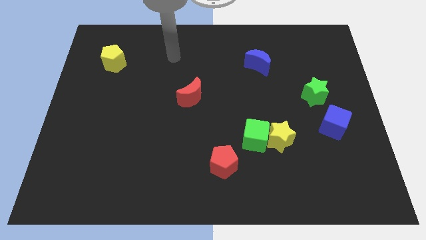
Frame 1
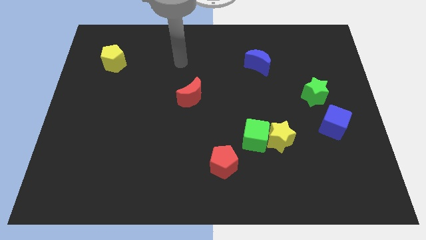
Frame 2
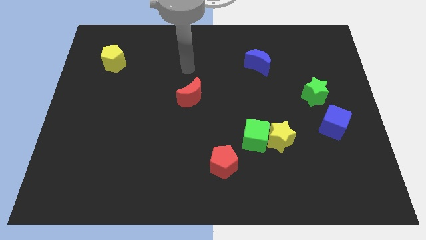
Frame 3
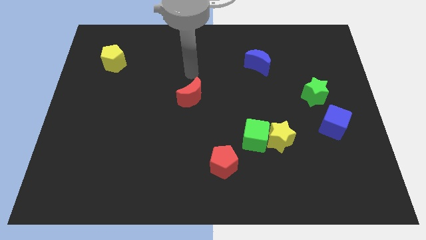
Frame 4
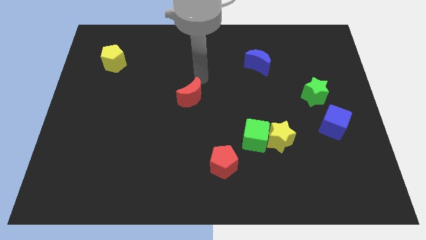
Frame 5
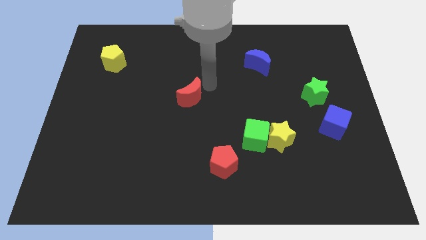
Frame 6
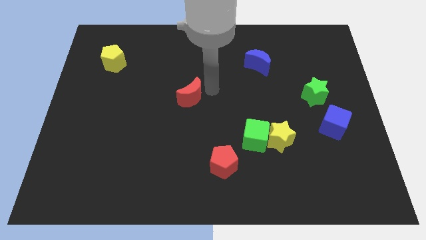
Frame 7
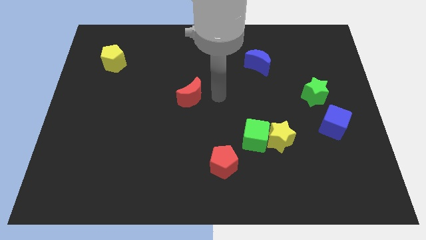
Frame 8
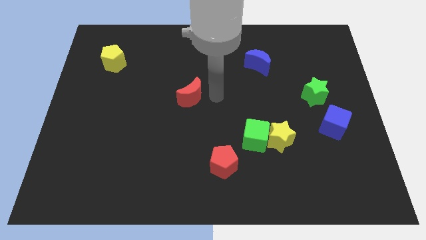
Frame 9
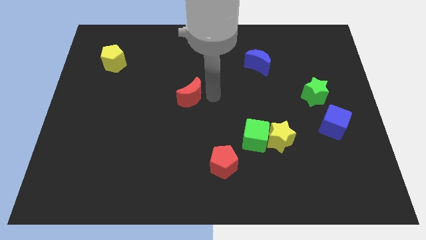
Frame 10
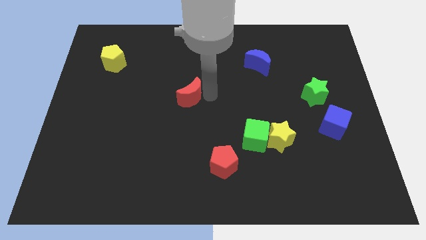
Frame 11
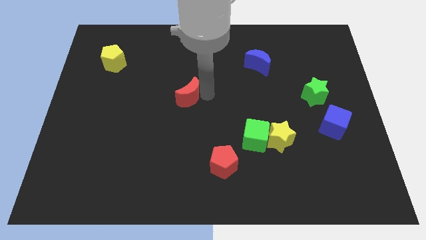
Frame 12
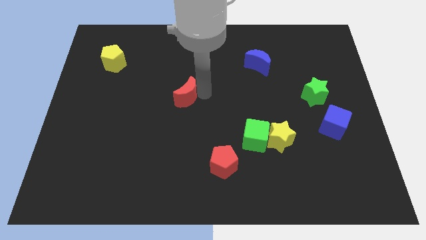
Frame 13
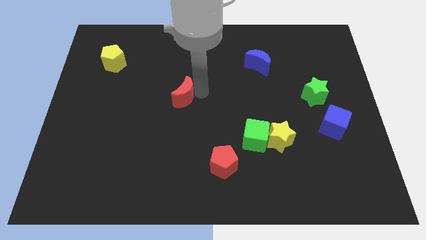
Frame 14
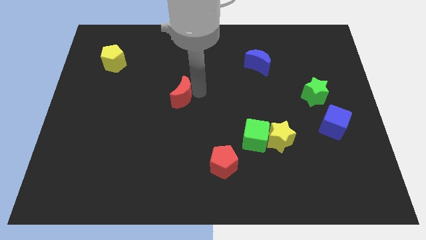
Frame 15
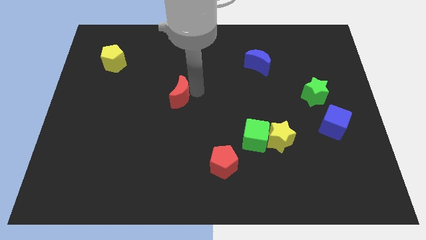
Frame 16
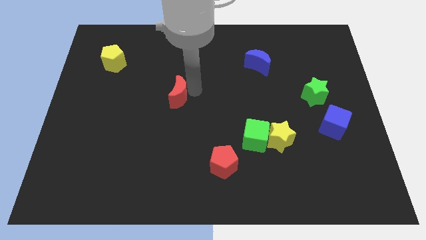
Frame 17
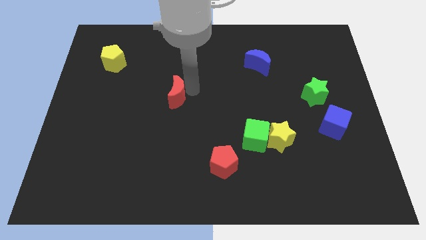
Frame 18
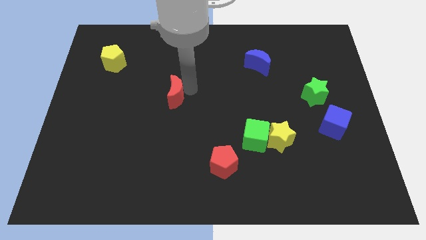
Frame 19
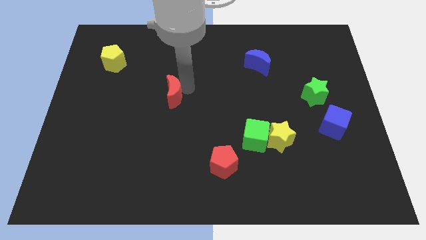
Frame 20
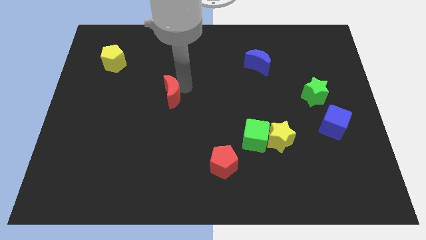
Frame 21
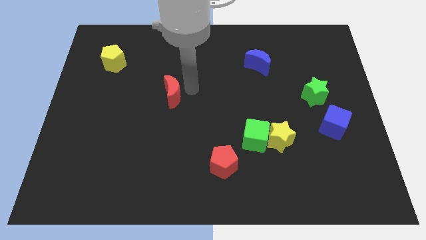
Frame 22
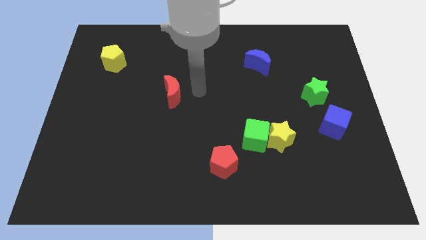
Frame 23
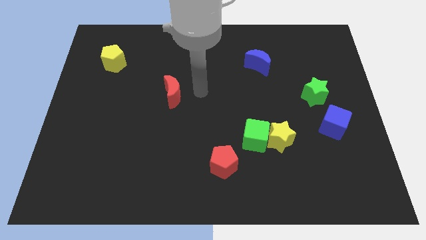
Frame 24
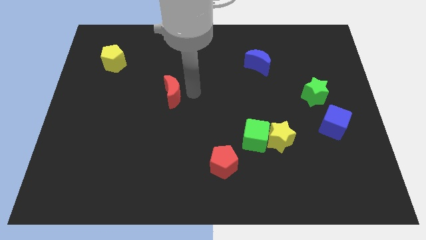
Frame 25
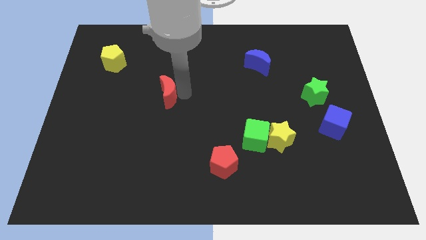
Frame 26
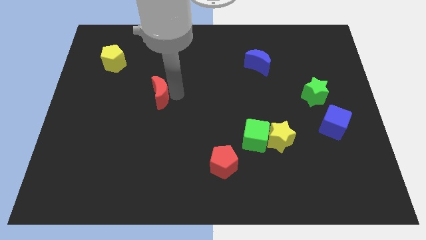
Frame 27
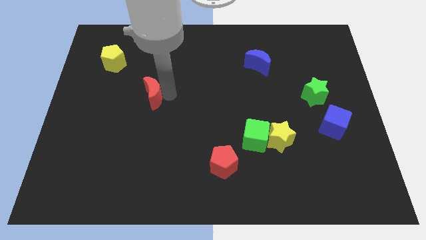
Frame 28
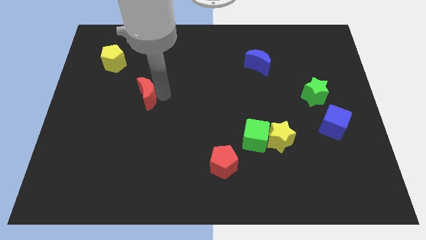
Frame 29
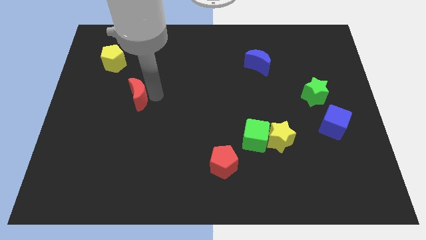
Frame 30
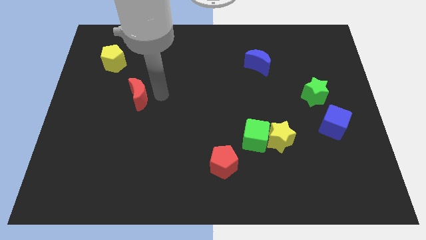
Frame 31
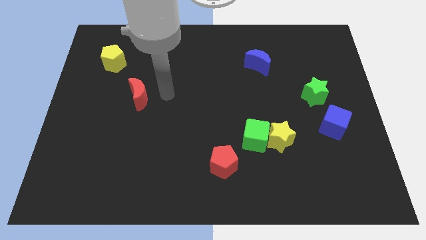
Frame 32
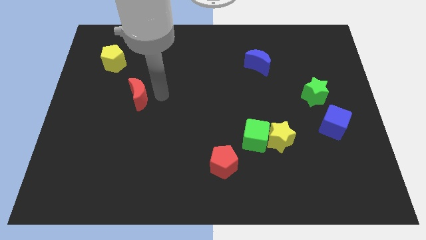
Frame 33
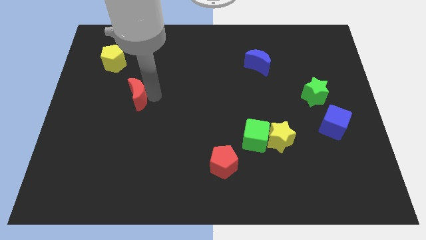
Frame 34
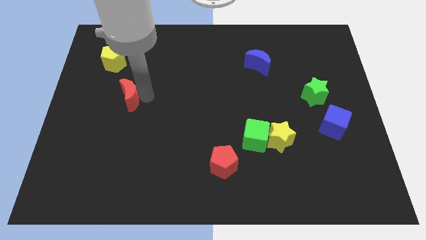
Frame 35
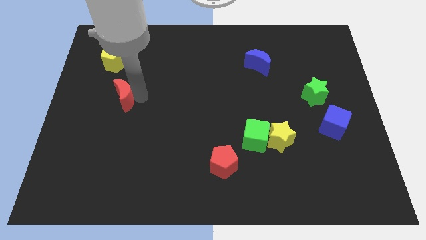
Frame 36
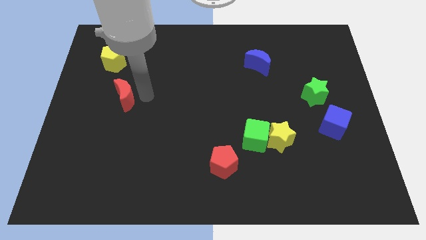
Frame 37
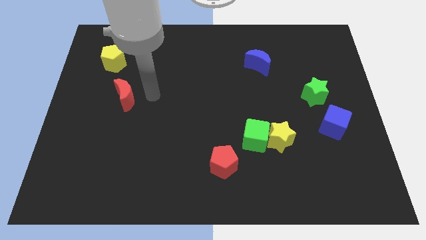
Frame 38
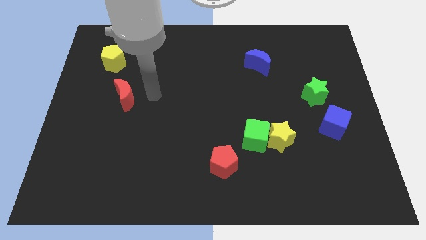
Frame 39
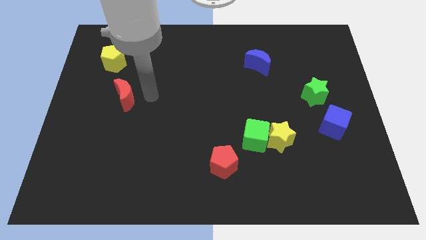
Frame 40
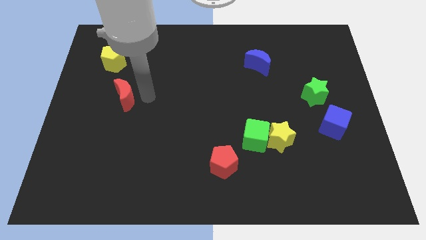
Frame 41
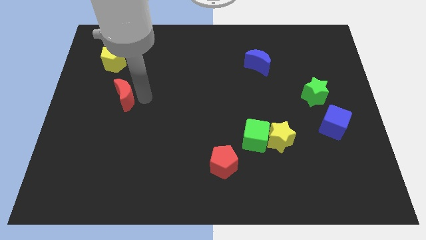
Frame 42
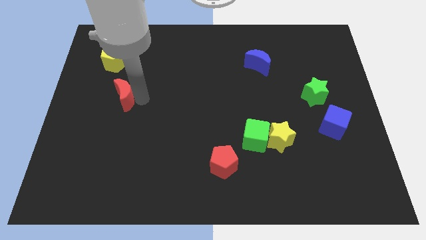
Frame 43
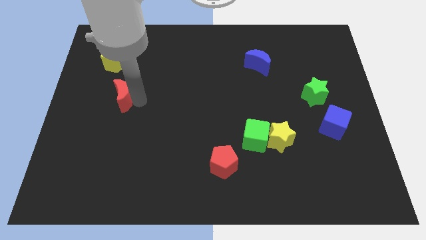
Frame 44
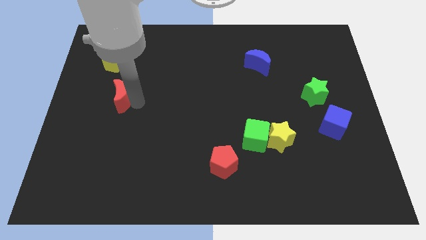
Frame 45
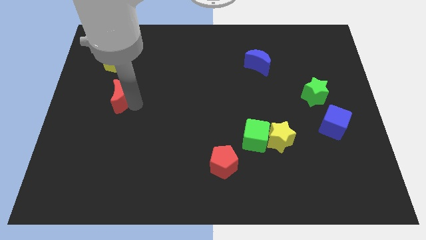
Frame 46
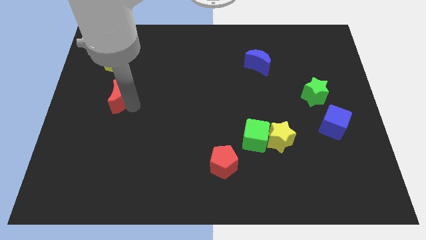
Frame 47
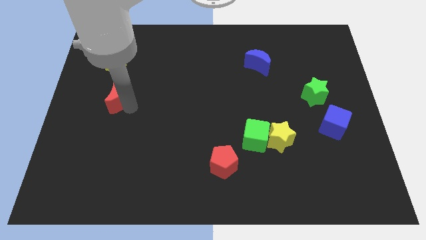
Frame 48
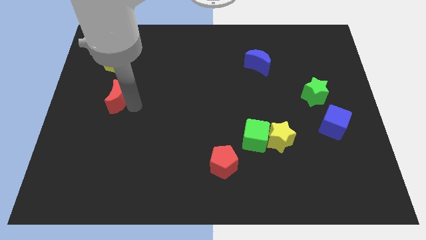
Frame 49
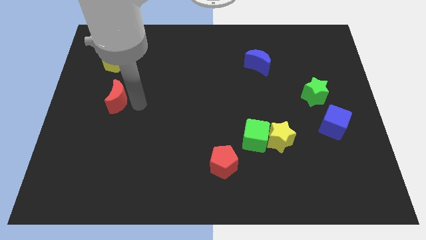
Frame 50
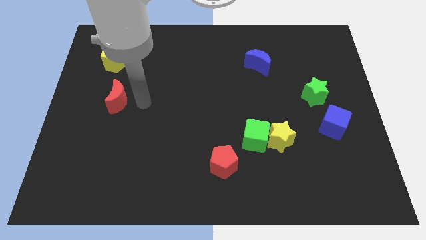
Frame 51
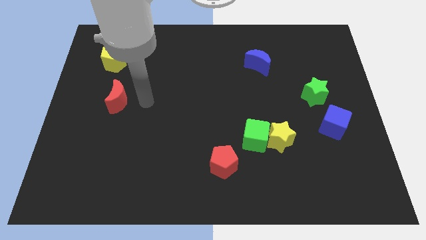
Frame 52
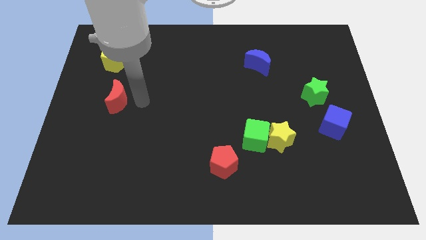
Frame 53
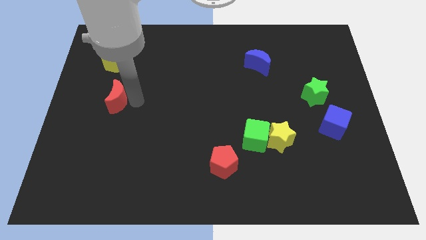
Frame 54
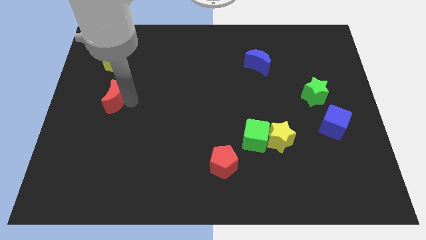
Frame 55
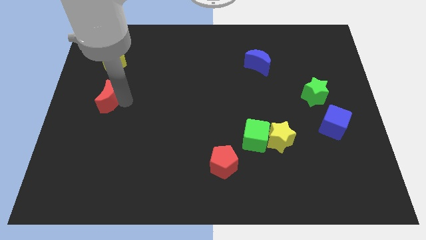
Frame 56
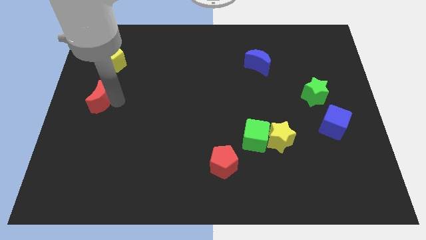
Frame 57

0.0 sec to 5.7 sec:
put the red moon to the center left

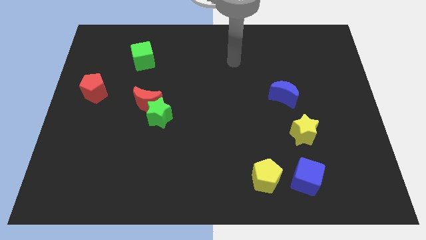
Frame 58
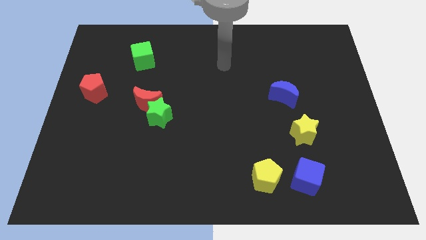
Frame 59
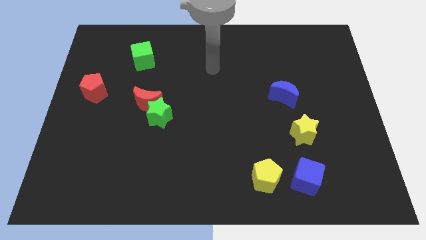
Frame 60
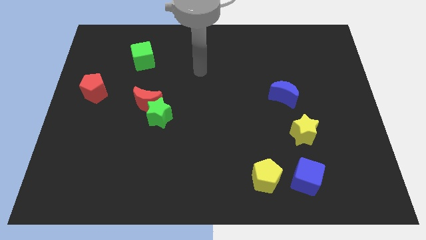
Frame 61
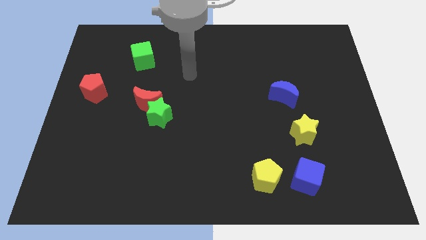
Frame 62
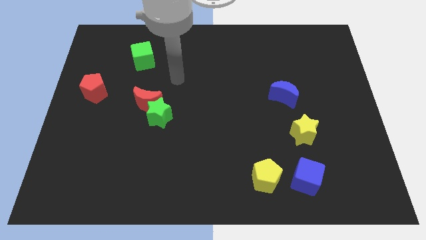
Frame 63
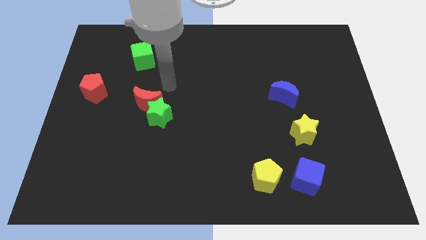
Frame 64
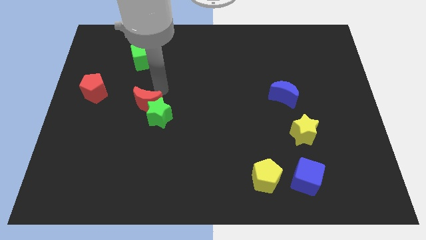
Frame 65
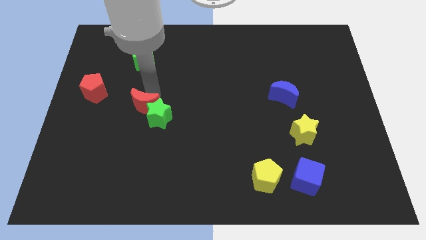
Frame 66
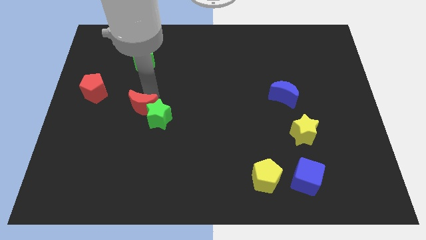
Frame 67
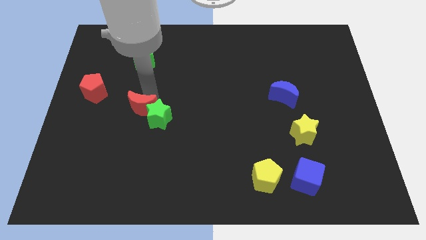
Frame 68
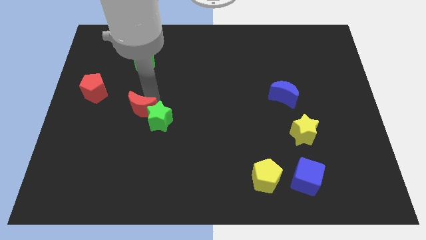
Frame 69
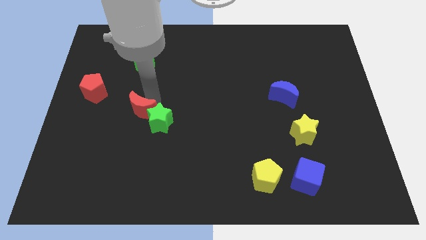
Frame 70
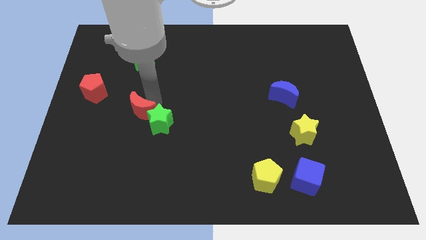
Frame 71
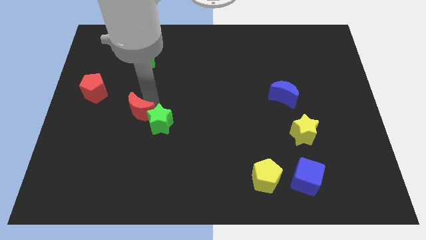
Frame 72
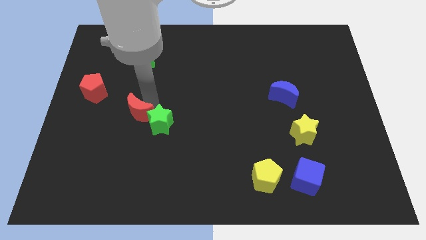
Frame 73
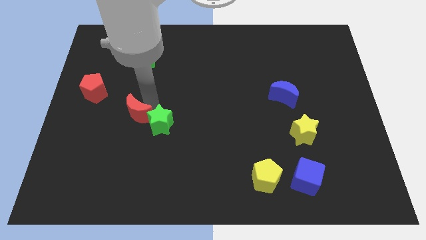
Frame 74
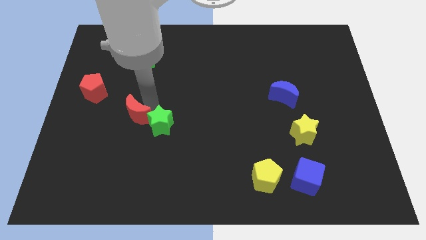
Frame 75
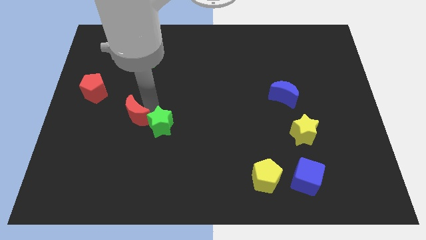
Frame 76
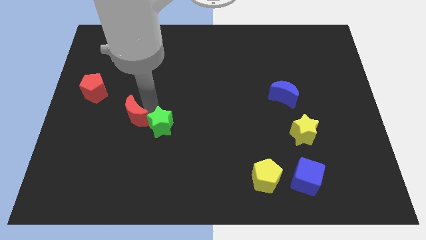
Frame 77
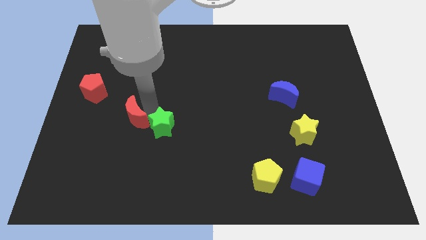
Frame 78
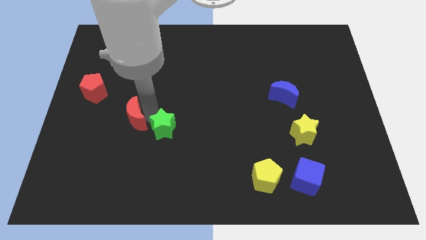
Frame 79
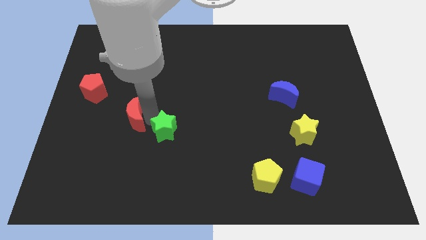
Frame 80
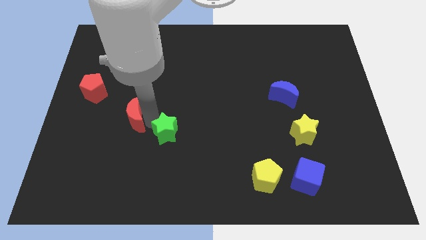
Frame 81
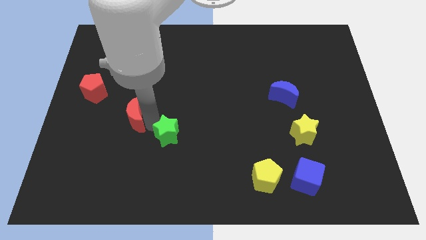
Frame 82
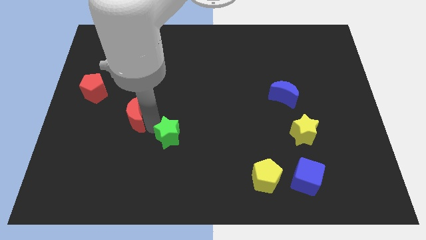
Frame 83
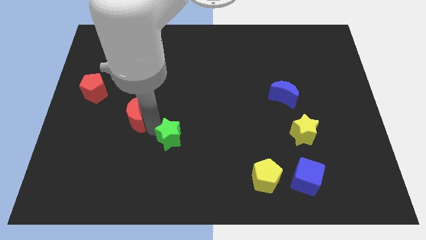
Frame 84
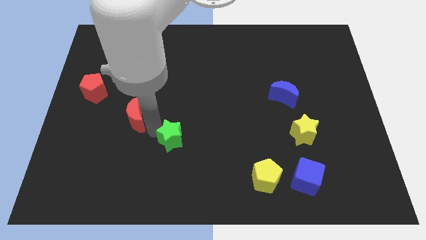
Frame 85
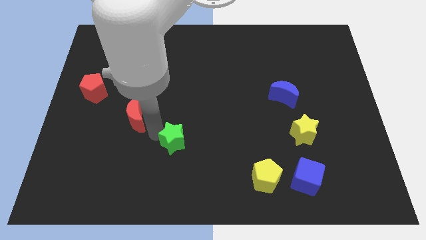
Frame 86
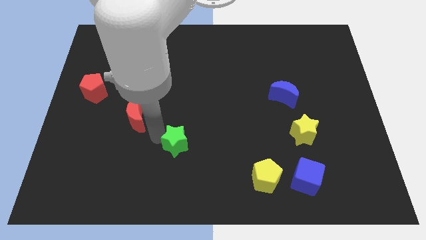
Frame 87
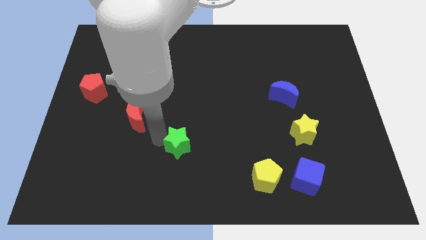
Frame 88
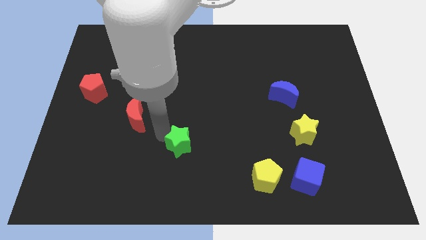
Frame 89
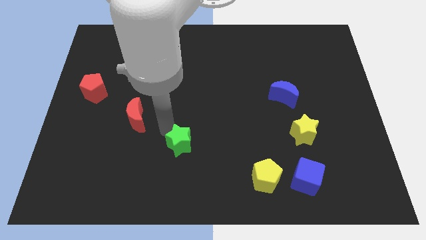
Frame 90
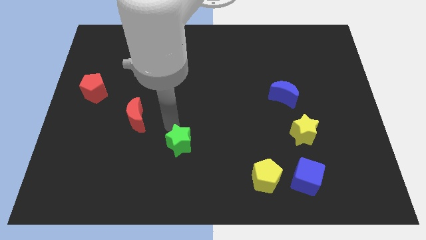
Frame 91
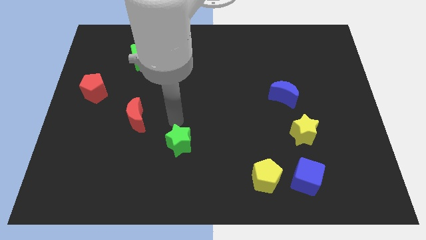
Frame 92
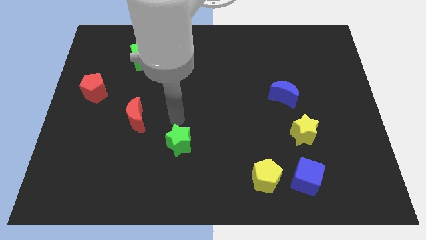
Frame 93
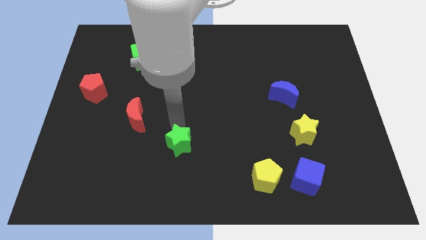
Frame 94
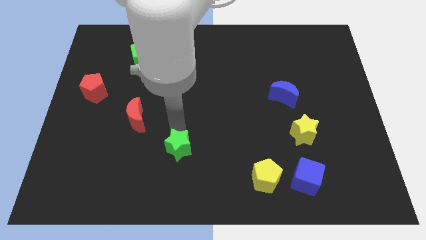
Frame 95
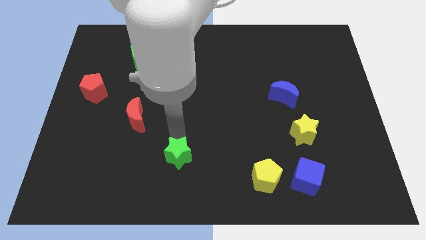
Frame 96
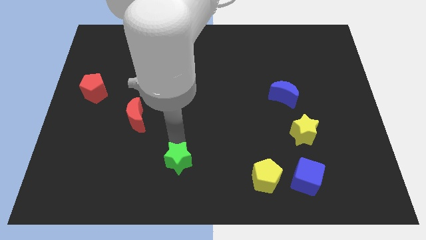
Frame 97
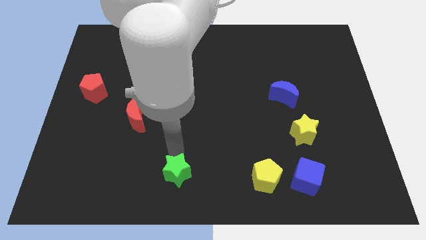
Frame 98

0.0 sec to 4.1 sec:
move the green star to the bottom
